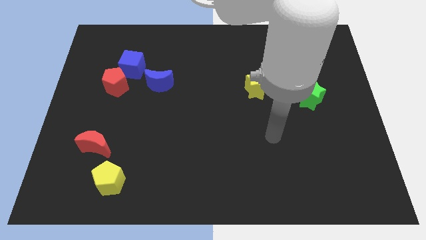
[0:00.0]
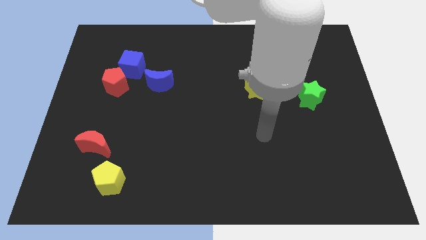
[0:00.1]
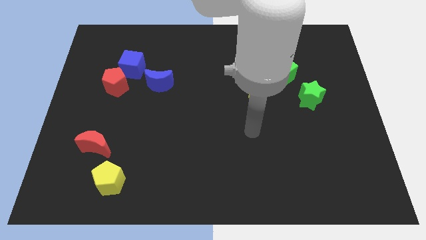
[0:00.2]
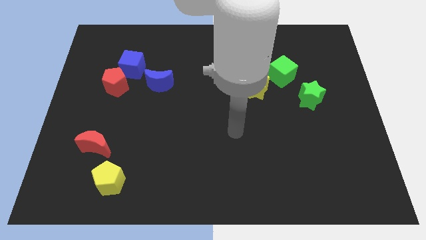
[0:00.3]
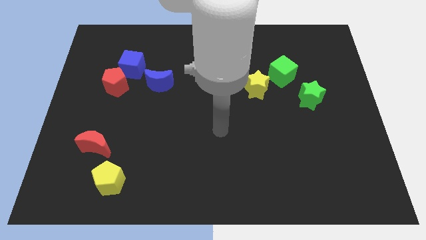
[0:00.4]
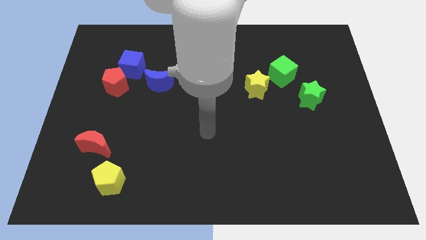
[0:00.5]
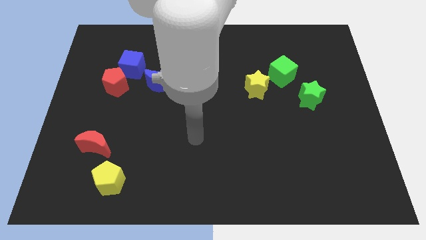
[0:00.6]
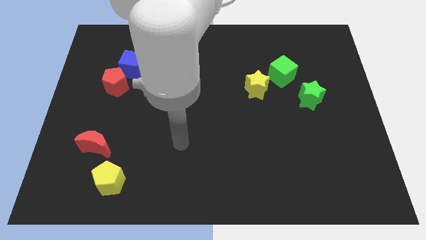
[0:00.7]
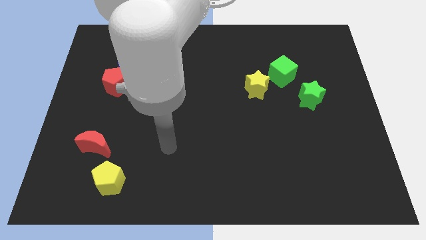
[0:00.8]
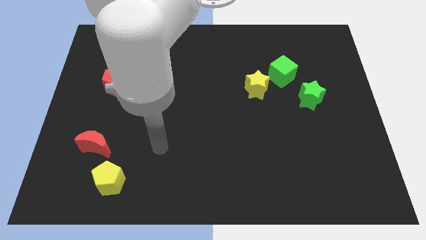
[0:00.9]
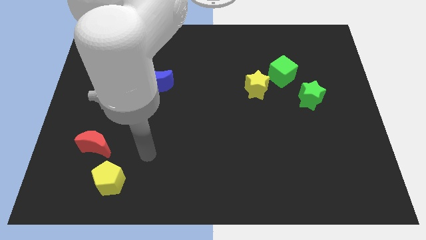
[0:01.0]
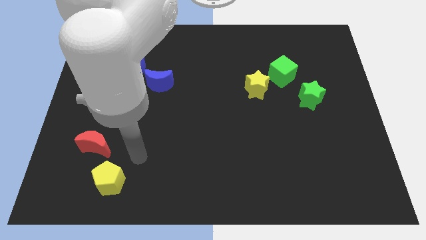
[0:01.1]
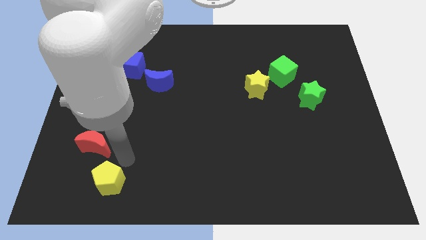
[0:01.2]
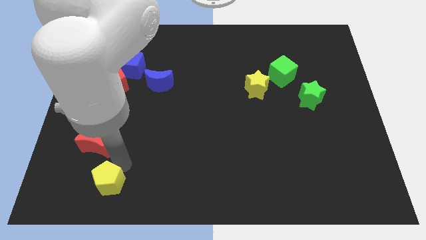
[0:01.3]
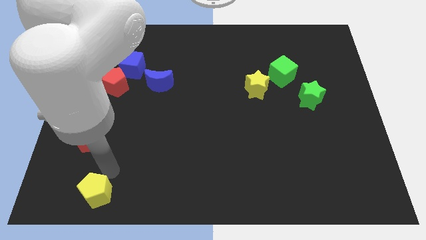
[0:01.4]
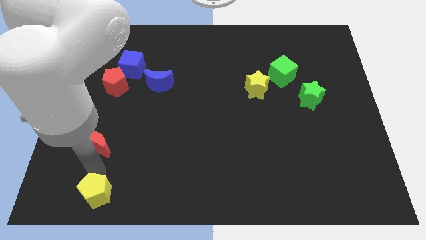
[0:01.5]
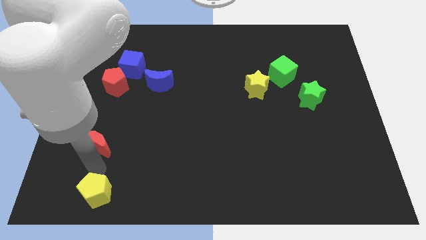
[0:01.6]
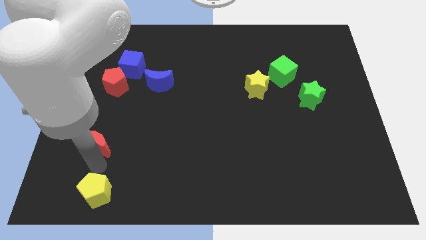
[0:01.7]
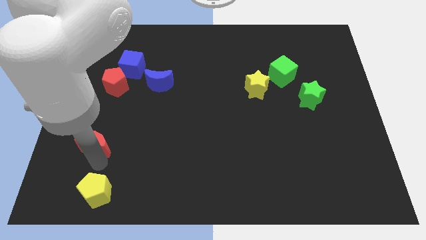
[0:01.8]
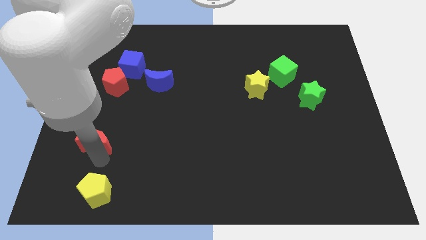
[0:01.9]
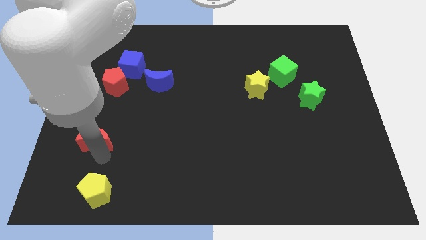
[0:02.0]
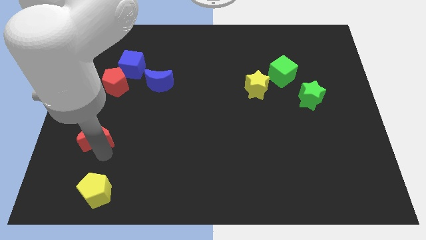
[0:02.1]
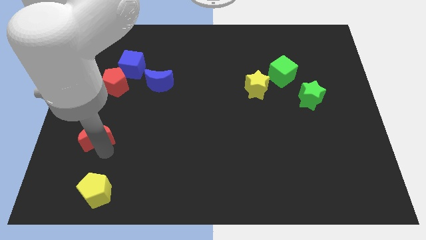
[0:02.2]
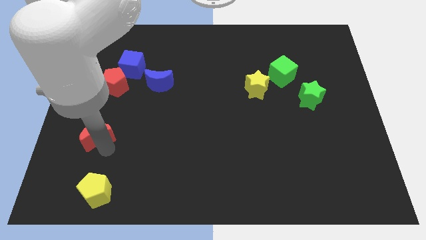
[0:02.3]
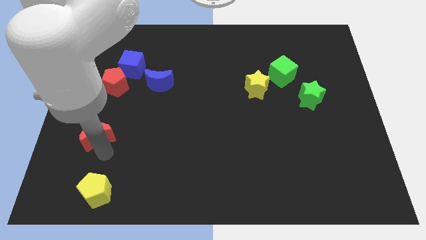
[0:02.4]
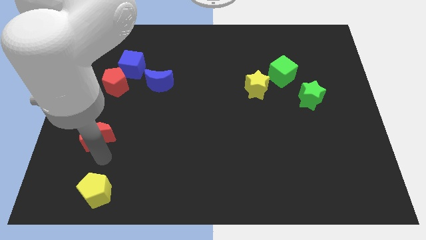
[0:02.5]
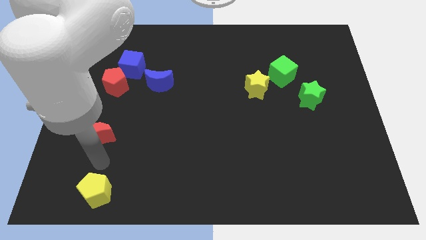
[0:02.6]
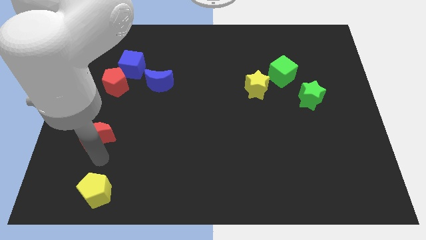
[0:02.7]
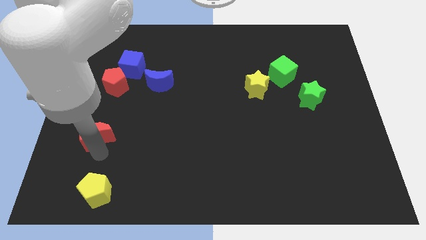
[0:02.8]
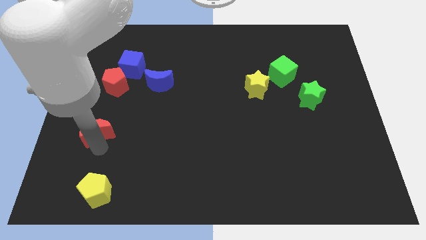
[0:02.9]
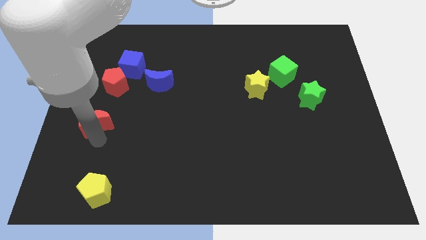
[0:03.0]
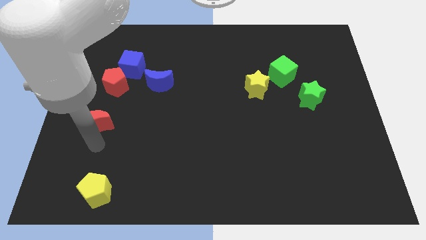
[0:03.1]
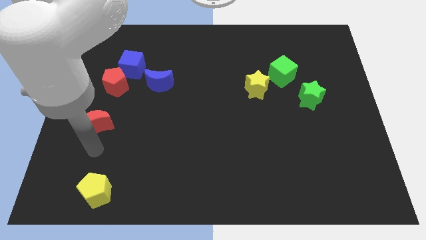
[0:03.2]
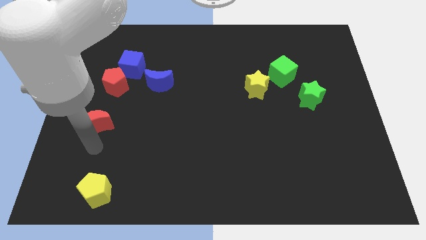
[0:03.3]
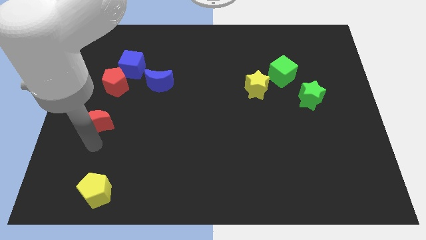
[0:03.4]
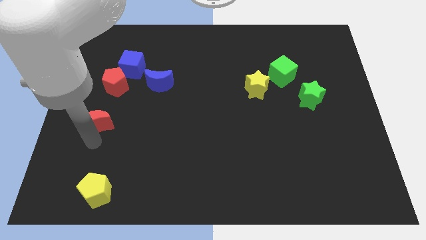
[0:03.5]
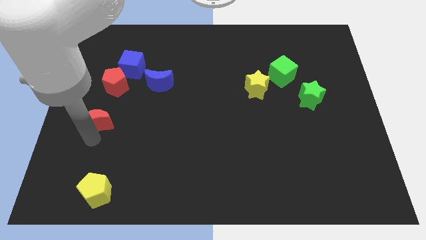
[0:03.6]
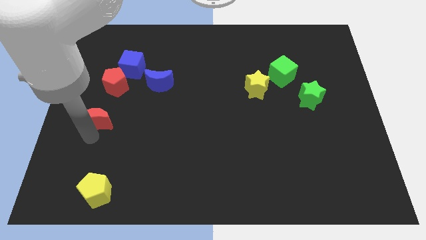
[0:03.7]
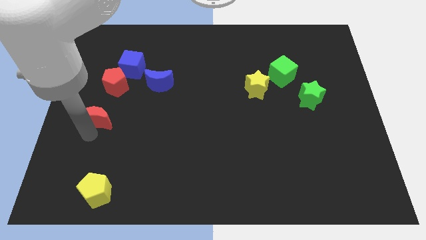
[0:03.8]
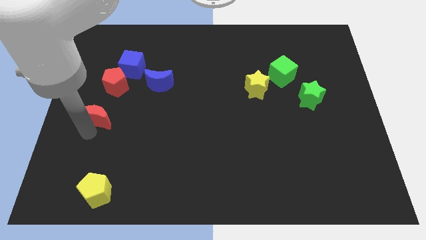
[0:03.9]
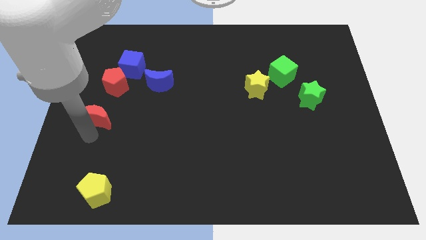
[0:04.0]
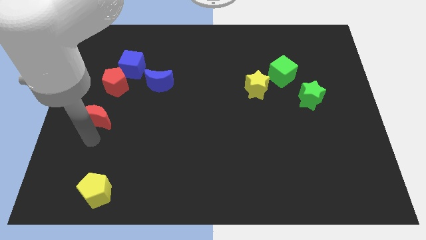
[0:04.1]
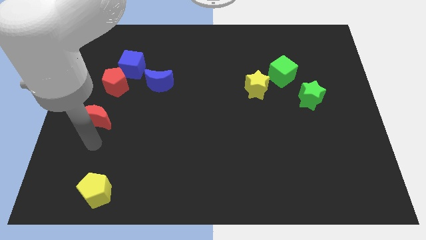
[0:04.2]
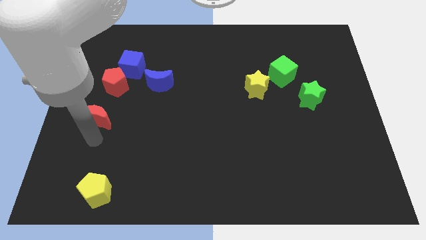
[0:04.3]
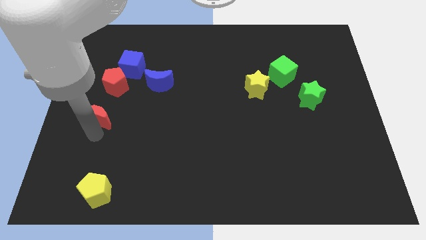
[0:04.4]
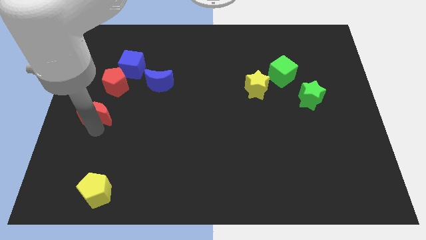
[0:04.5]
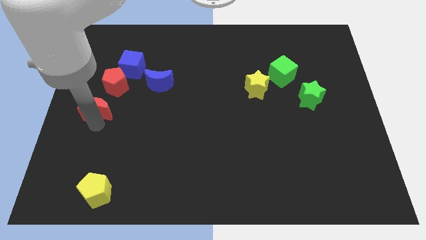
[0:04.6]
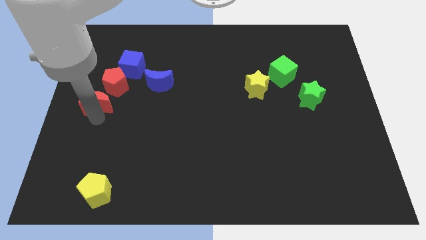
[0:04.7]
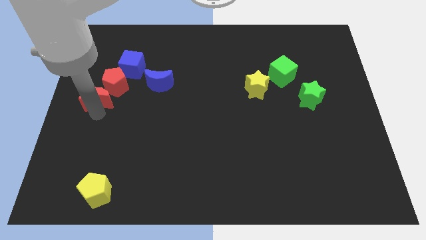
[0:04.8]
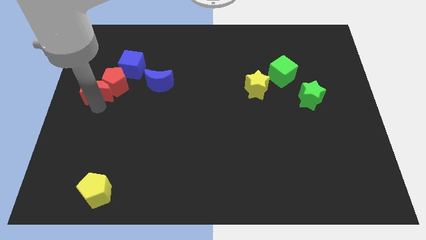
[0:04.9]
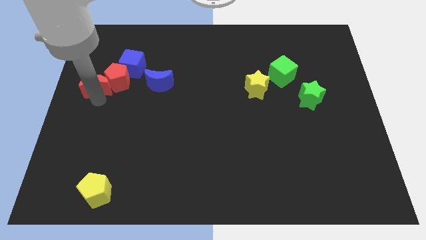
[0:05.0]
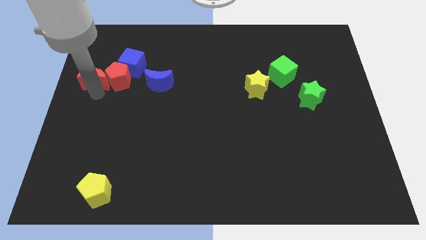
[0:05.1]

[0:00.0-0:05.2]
push the red moon to the top left side of the red pentagon

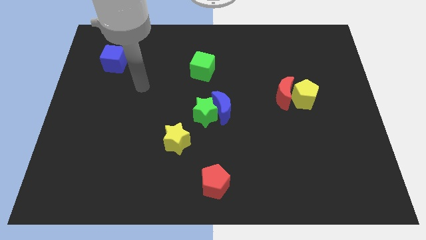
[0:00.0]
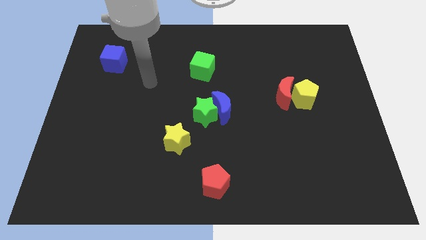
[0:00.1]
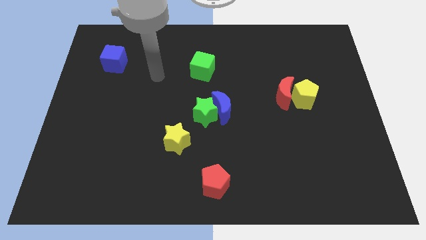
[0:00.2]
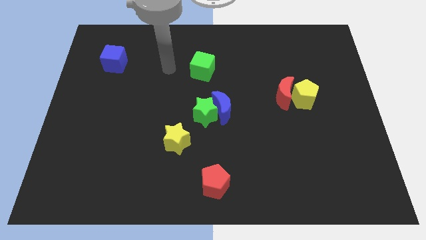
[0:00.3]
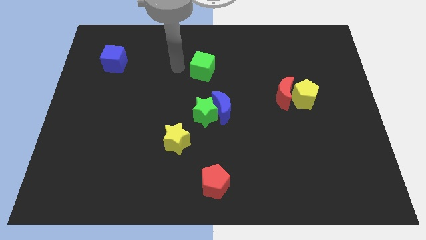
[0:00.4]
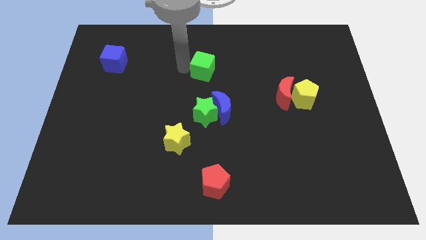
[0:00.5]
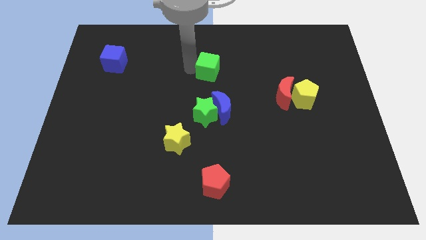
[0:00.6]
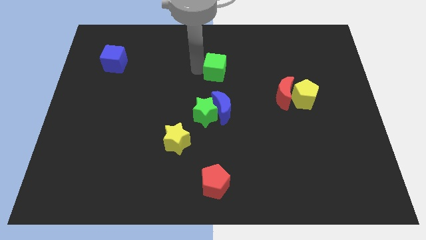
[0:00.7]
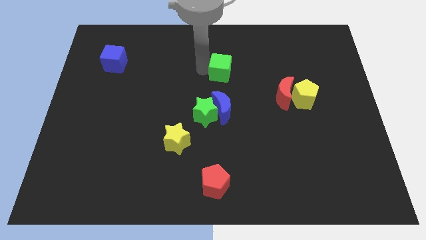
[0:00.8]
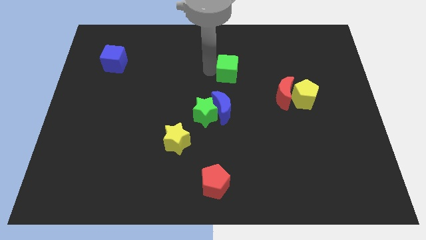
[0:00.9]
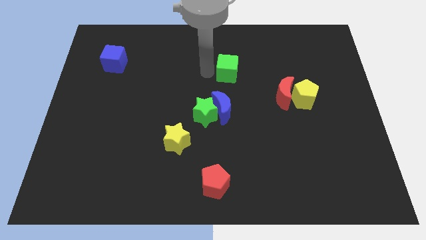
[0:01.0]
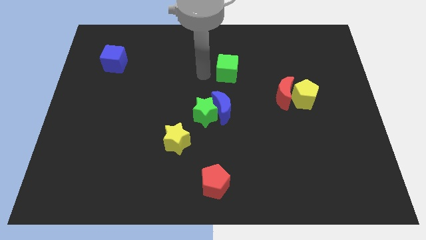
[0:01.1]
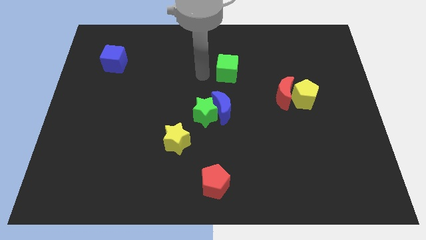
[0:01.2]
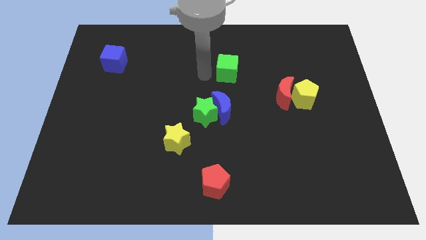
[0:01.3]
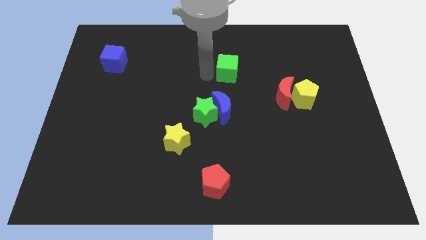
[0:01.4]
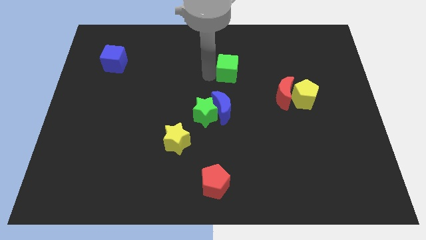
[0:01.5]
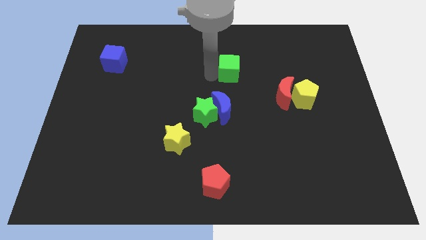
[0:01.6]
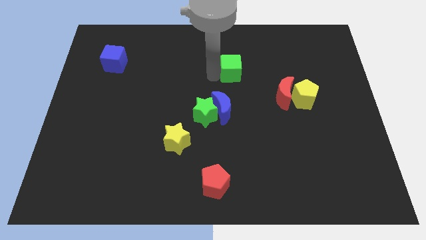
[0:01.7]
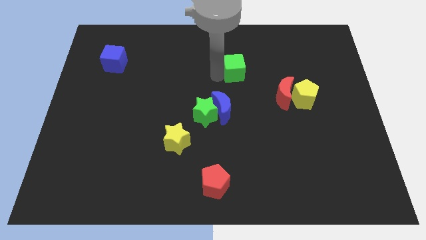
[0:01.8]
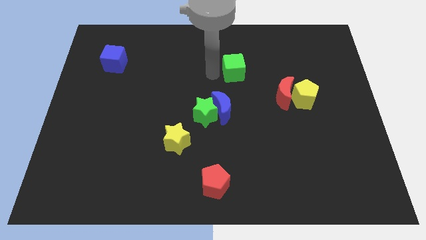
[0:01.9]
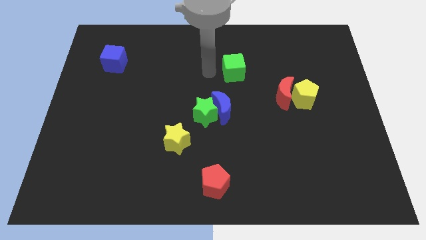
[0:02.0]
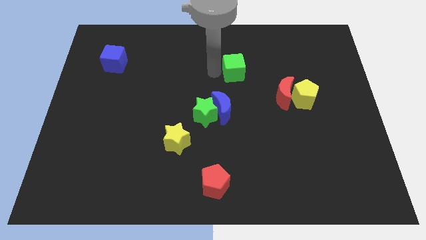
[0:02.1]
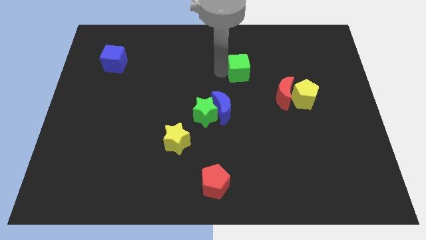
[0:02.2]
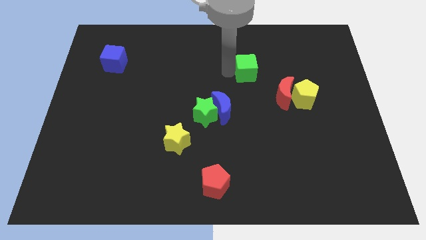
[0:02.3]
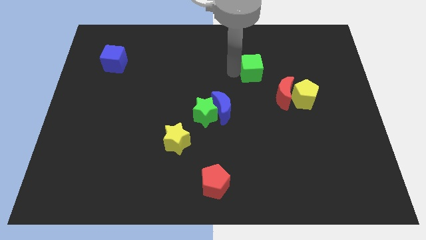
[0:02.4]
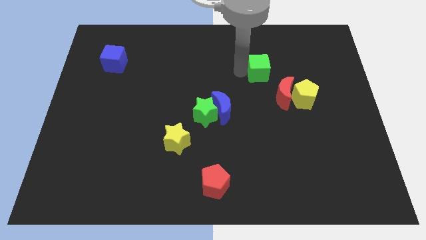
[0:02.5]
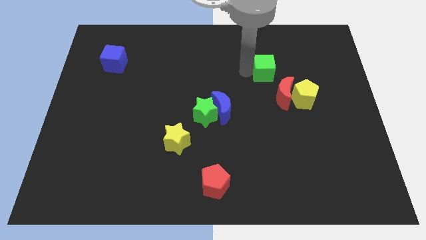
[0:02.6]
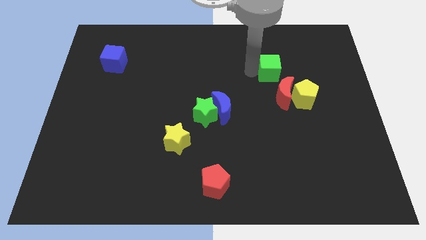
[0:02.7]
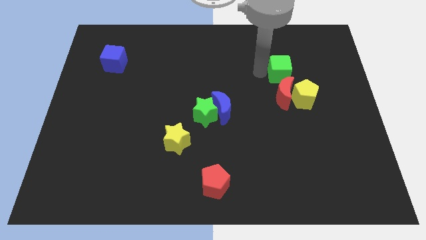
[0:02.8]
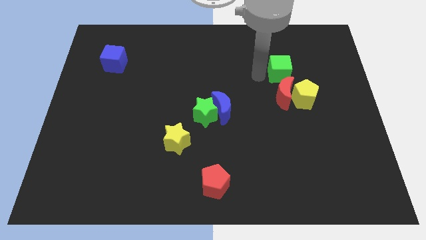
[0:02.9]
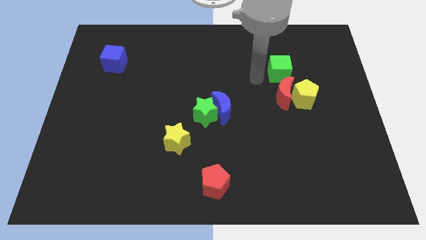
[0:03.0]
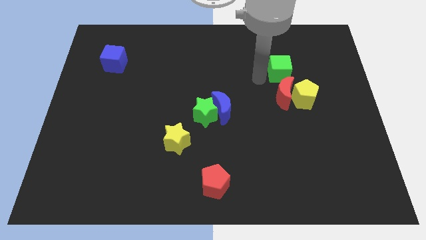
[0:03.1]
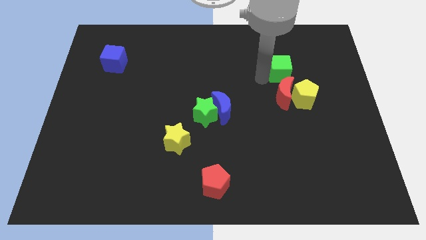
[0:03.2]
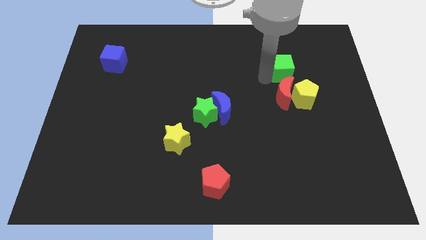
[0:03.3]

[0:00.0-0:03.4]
slide the green cube to the top side of the yellow pentagon
